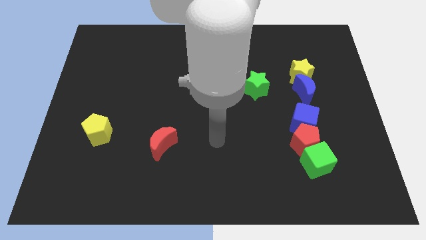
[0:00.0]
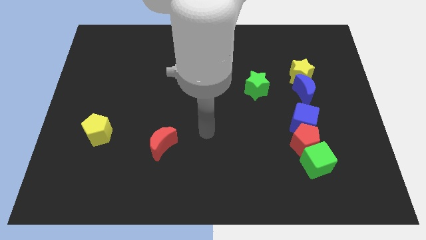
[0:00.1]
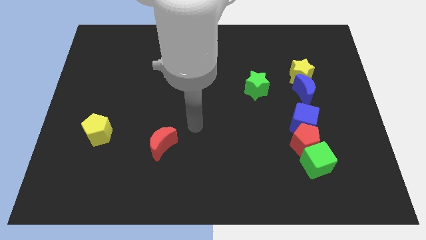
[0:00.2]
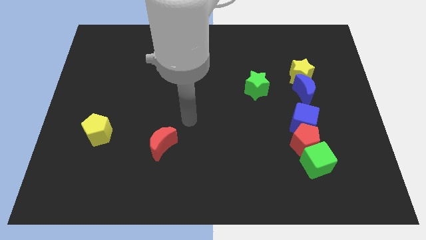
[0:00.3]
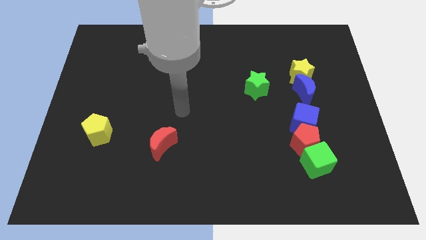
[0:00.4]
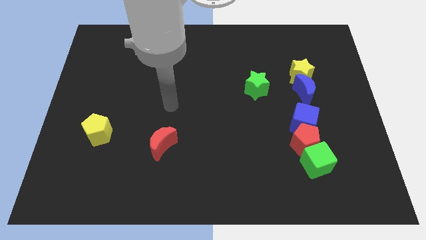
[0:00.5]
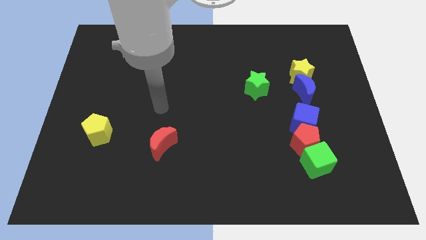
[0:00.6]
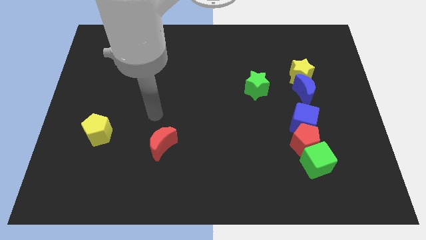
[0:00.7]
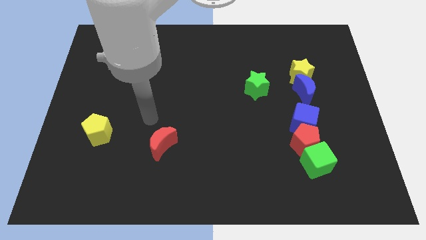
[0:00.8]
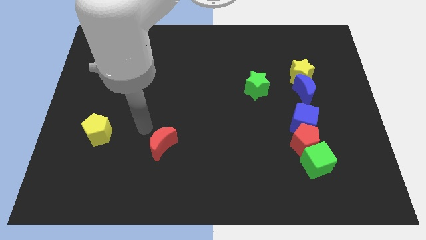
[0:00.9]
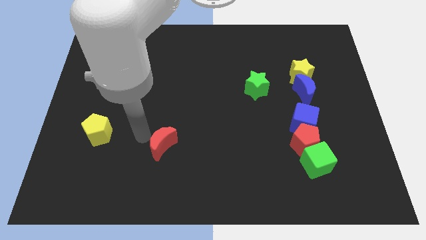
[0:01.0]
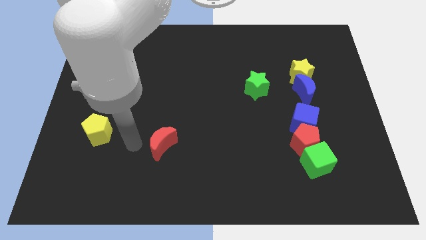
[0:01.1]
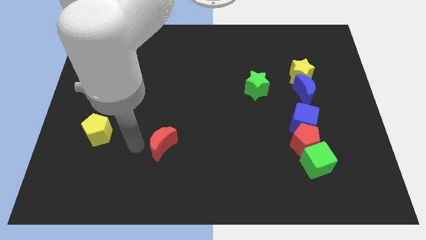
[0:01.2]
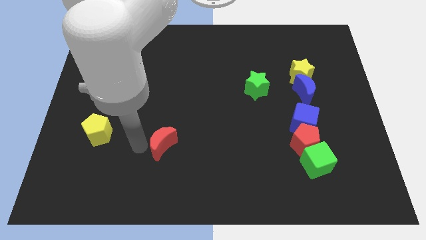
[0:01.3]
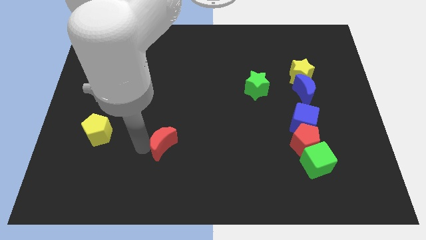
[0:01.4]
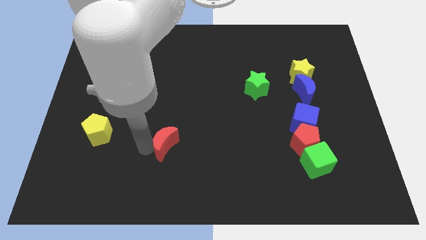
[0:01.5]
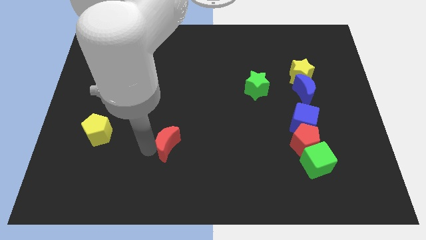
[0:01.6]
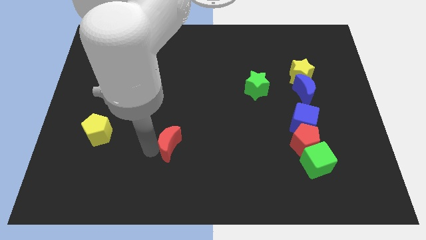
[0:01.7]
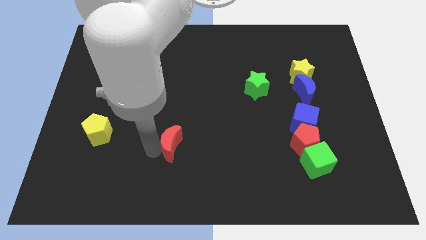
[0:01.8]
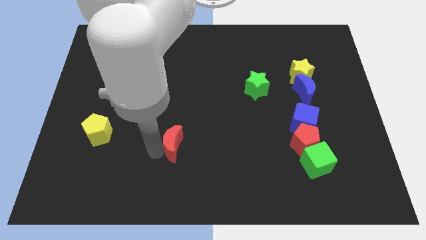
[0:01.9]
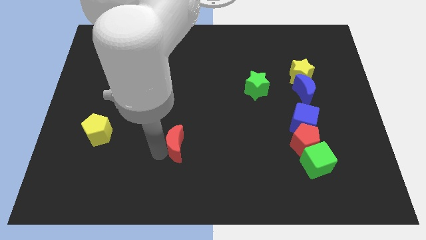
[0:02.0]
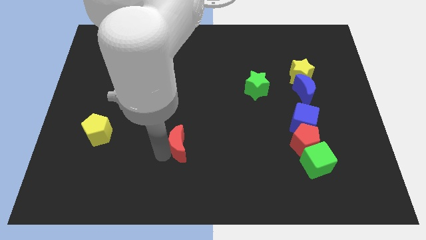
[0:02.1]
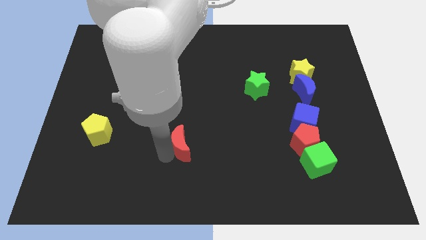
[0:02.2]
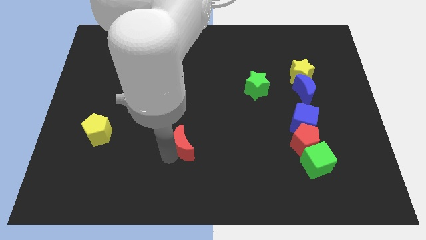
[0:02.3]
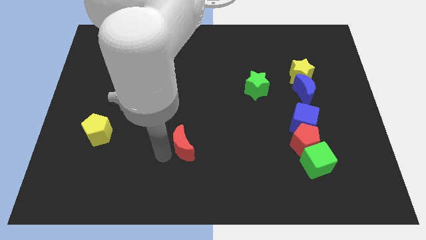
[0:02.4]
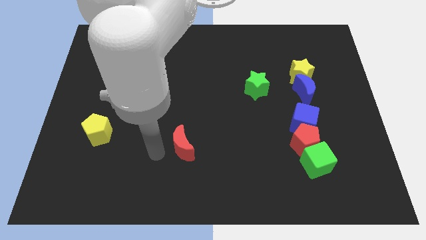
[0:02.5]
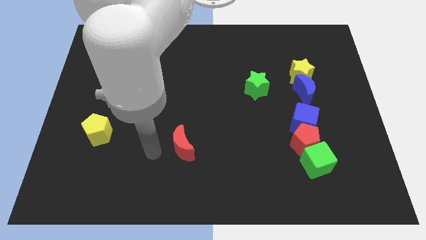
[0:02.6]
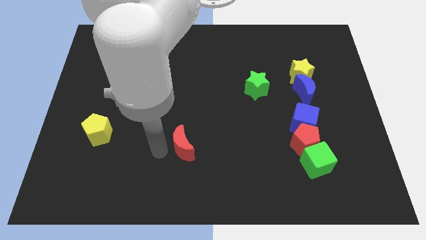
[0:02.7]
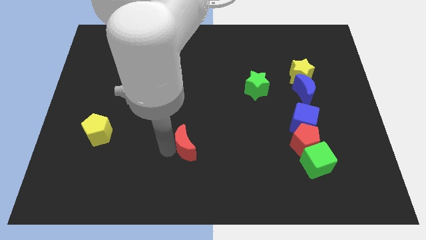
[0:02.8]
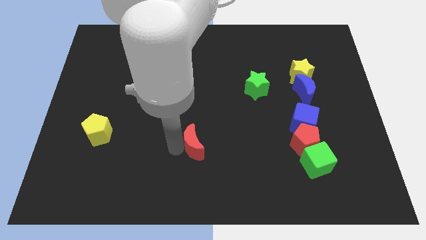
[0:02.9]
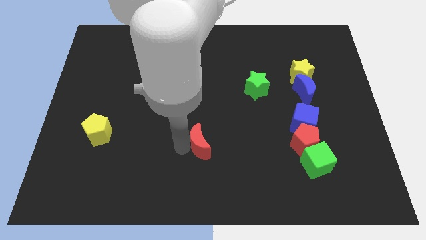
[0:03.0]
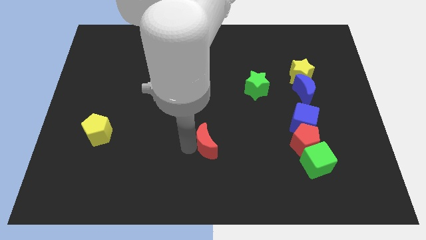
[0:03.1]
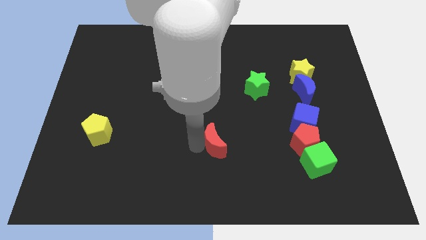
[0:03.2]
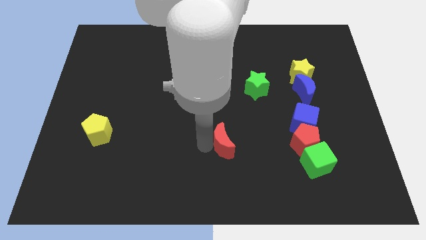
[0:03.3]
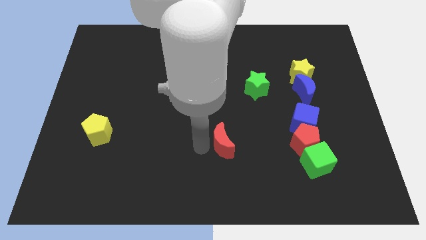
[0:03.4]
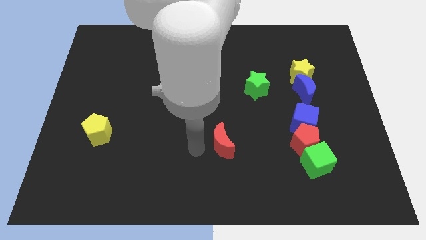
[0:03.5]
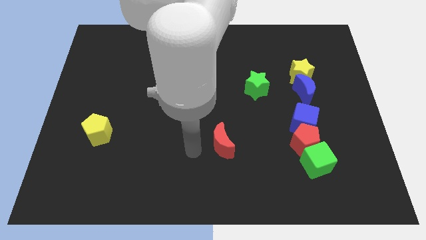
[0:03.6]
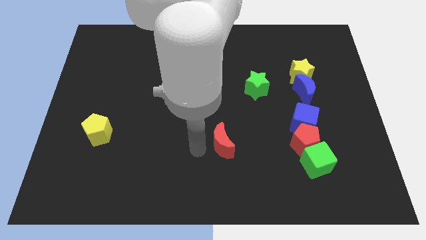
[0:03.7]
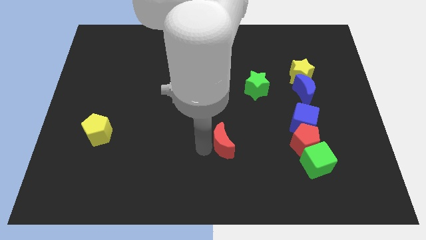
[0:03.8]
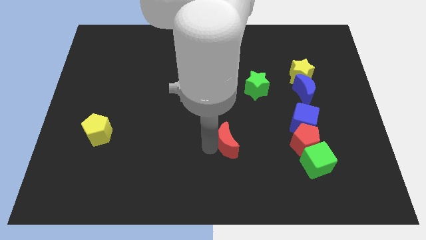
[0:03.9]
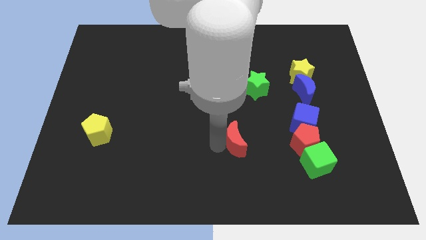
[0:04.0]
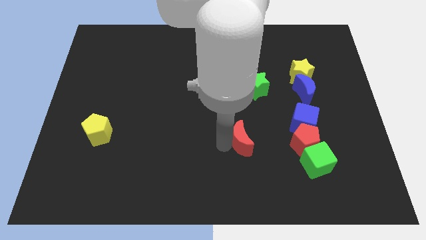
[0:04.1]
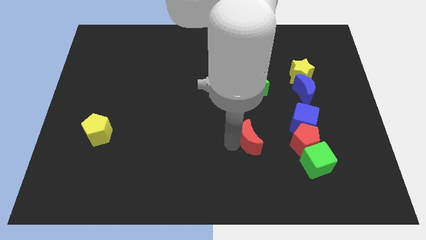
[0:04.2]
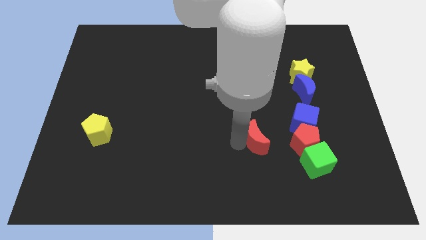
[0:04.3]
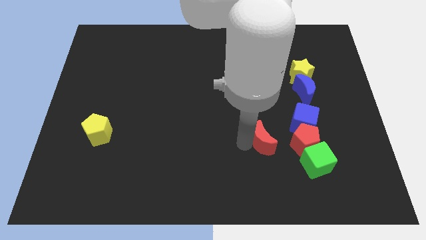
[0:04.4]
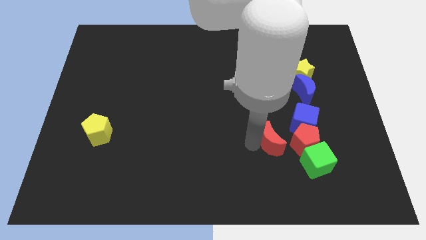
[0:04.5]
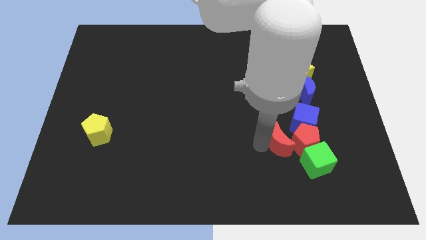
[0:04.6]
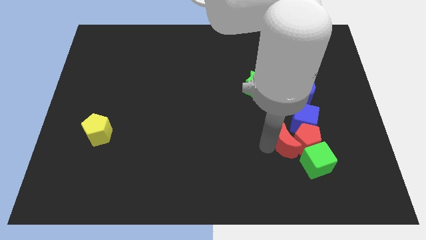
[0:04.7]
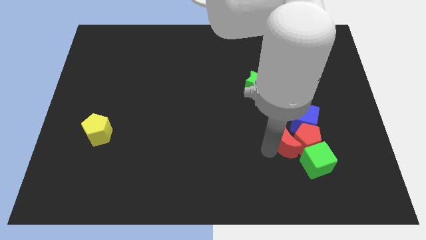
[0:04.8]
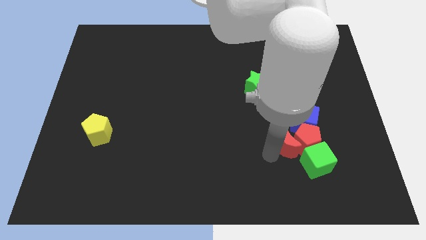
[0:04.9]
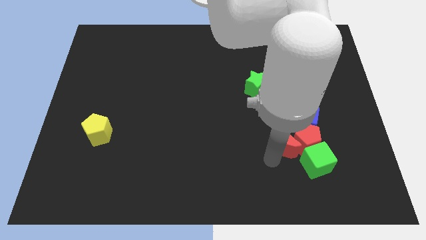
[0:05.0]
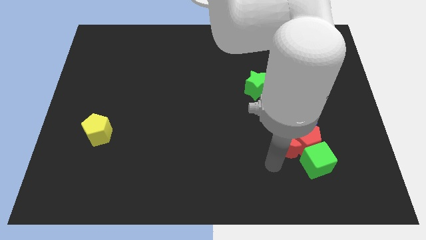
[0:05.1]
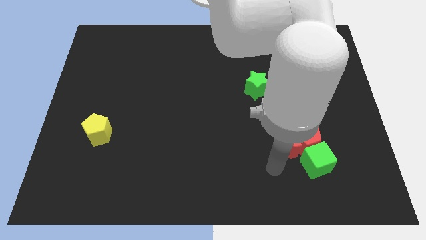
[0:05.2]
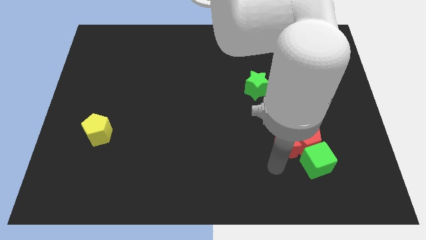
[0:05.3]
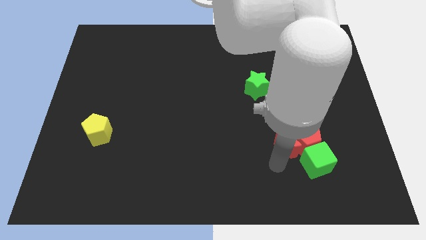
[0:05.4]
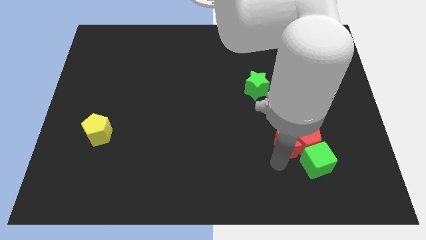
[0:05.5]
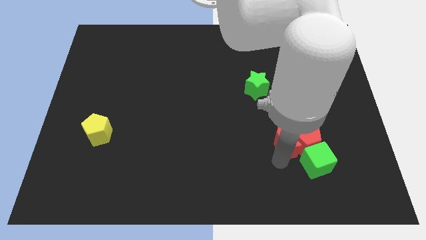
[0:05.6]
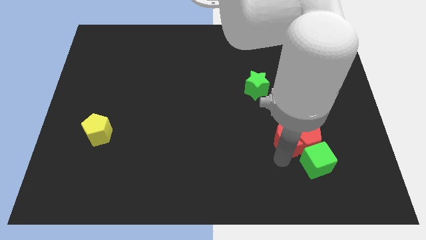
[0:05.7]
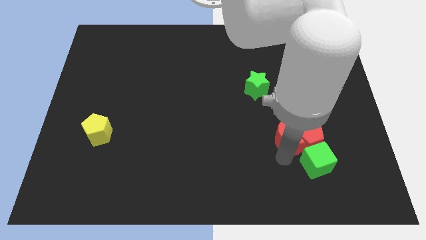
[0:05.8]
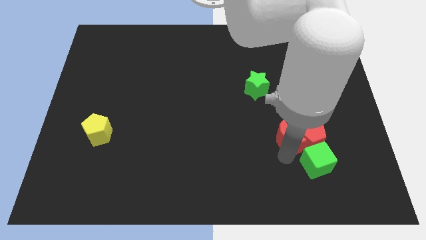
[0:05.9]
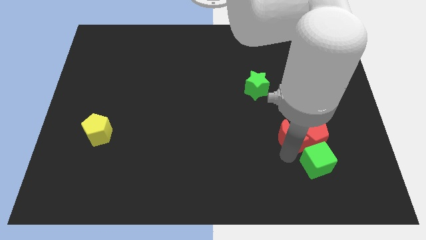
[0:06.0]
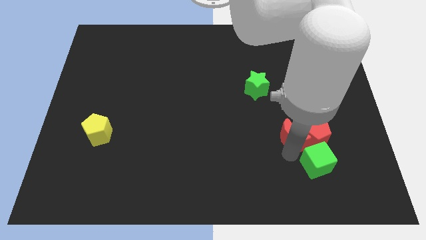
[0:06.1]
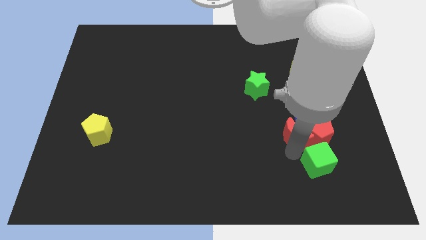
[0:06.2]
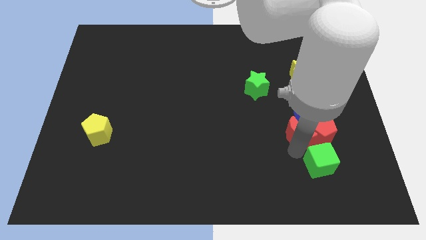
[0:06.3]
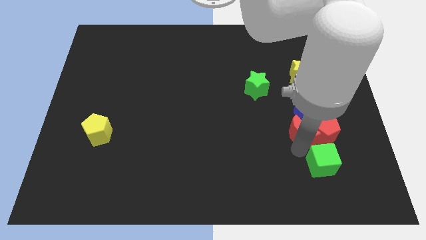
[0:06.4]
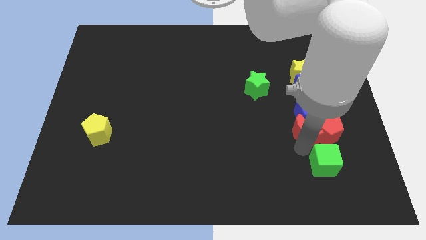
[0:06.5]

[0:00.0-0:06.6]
move the red moon to the blue cube
